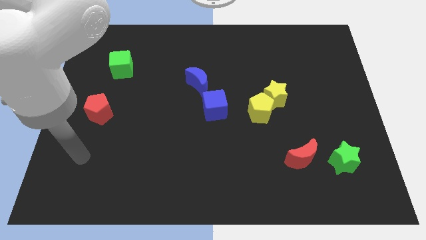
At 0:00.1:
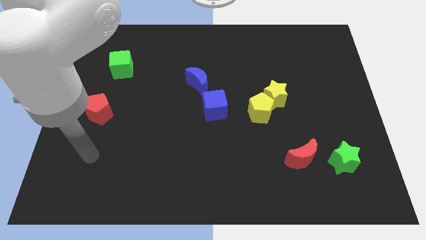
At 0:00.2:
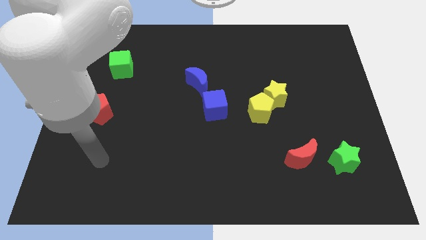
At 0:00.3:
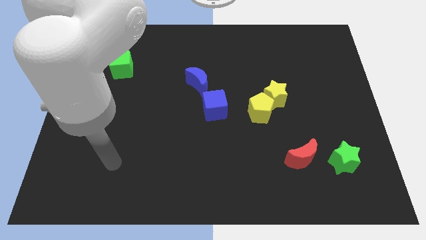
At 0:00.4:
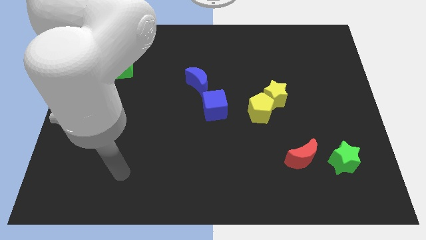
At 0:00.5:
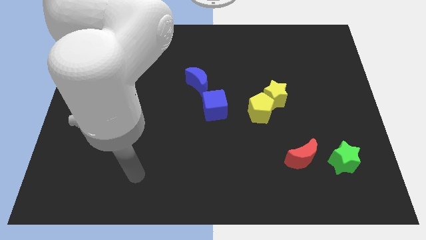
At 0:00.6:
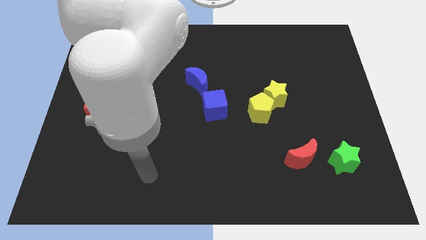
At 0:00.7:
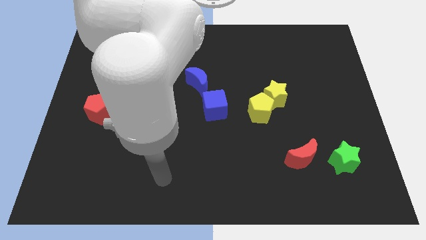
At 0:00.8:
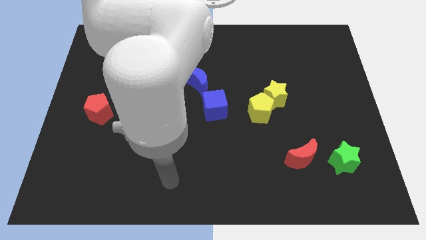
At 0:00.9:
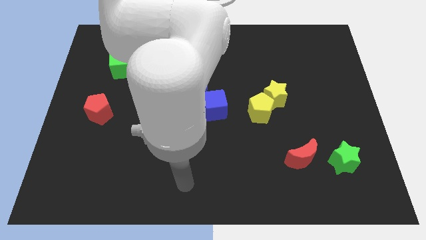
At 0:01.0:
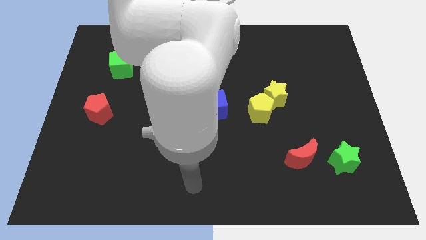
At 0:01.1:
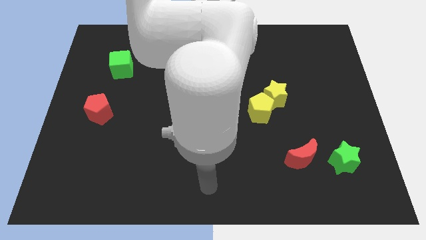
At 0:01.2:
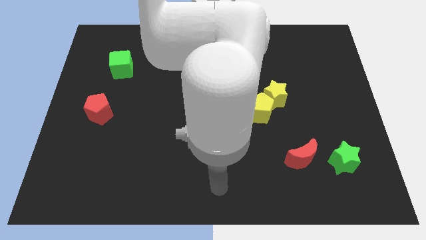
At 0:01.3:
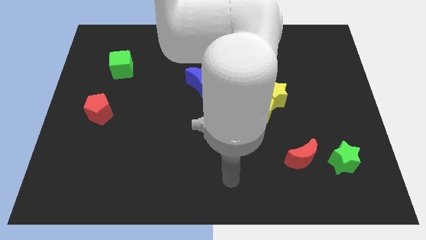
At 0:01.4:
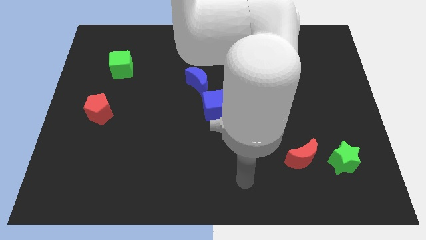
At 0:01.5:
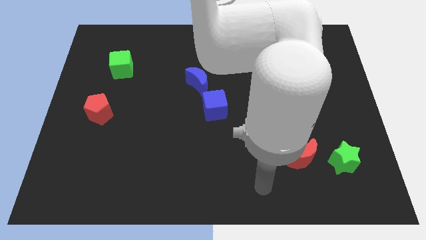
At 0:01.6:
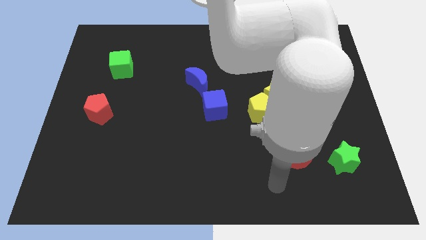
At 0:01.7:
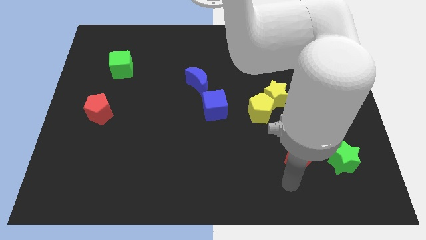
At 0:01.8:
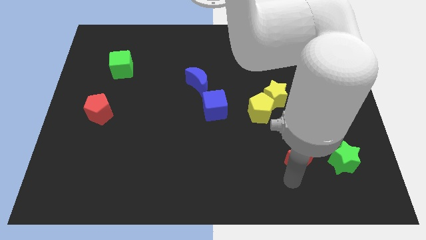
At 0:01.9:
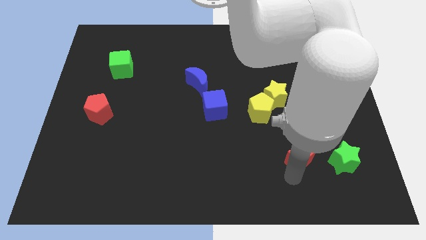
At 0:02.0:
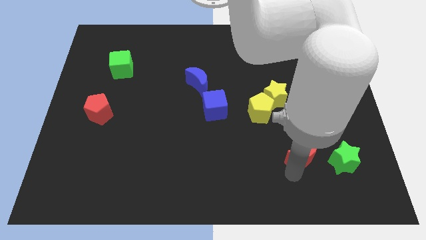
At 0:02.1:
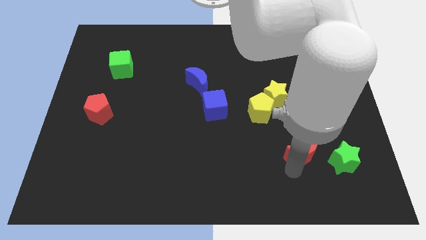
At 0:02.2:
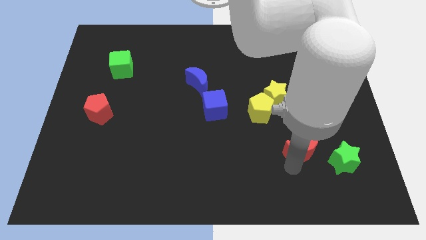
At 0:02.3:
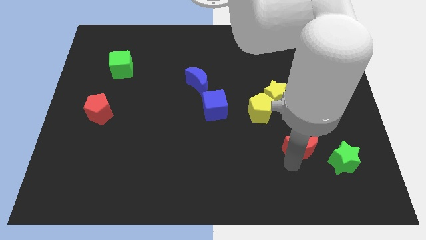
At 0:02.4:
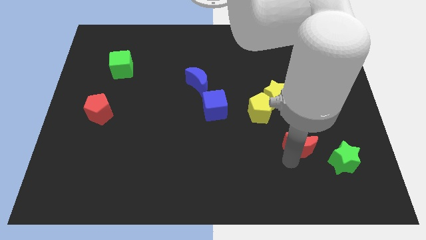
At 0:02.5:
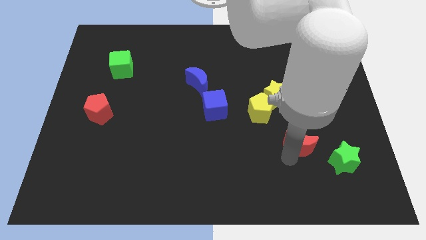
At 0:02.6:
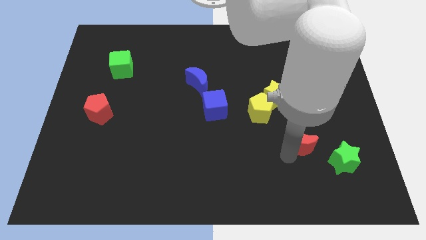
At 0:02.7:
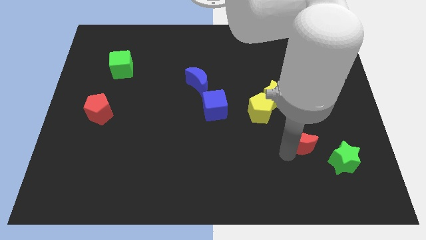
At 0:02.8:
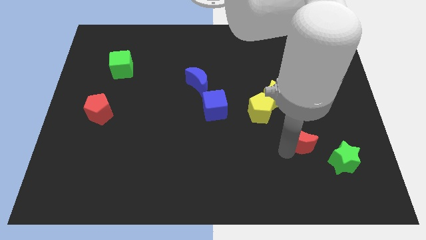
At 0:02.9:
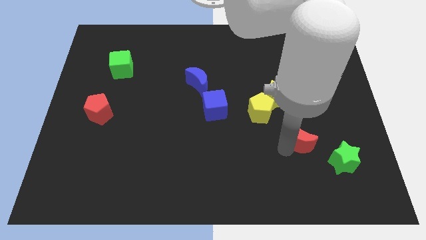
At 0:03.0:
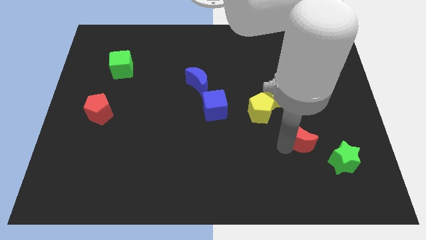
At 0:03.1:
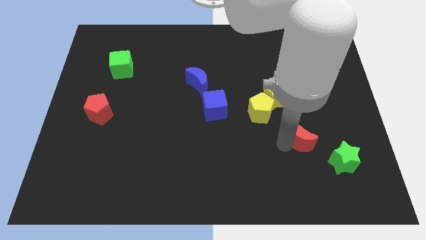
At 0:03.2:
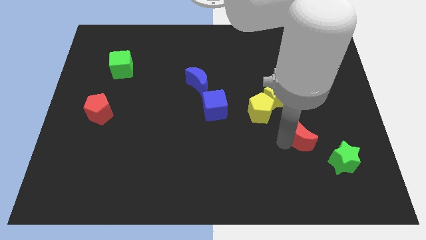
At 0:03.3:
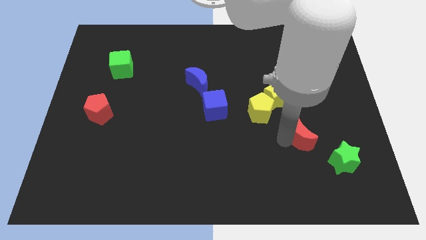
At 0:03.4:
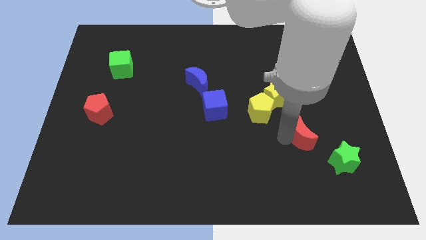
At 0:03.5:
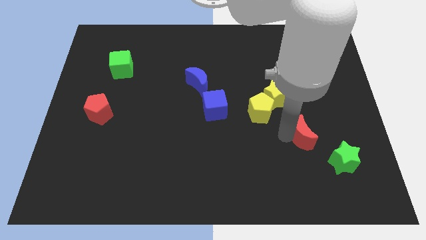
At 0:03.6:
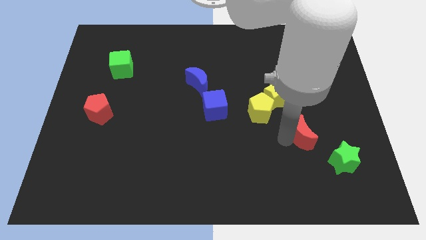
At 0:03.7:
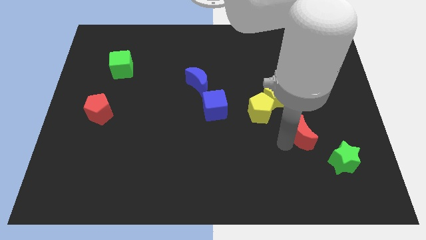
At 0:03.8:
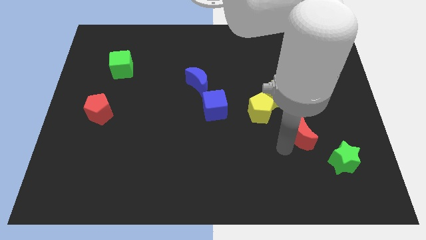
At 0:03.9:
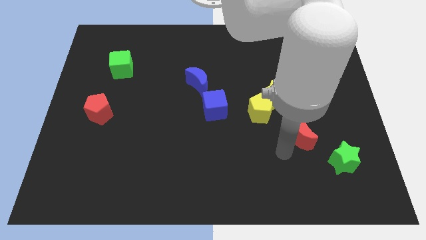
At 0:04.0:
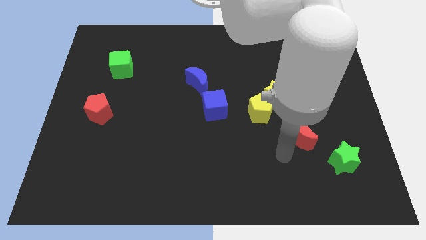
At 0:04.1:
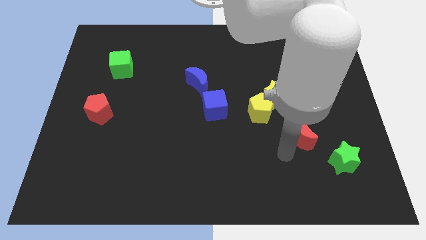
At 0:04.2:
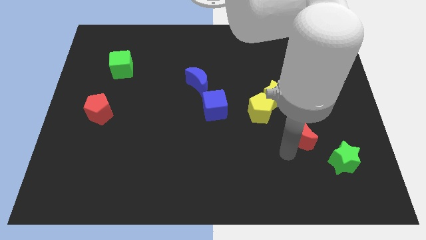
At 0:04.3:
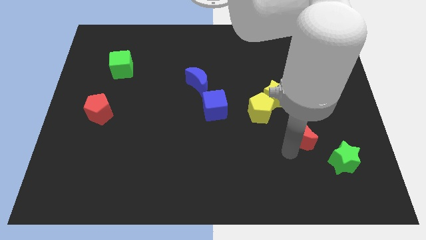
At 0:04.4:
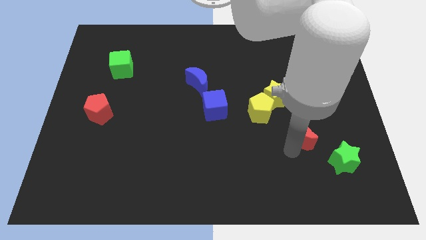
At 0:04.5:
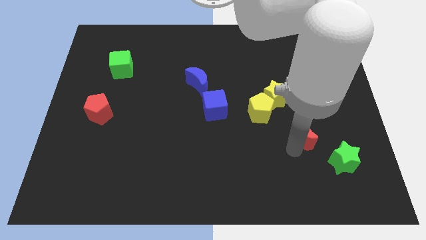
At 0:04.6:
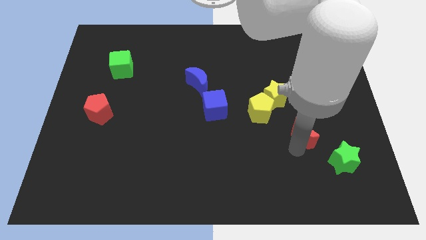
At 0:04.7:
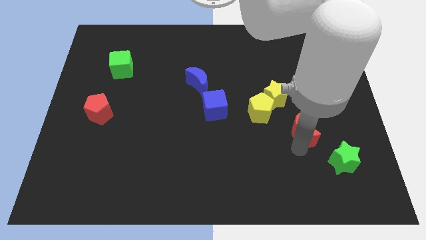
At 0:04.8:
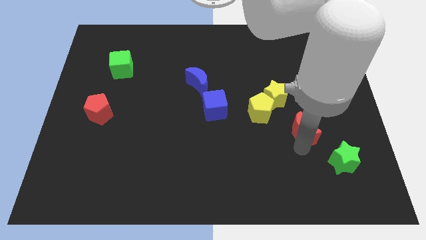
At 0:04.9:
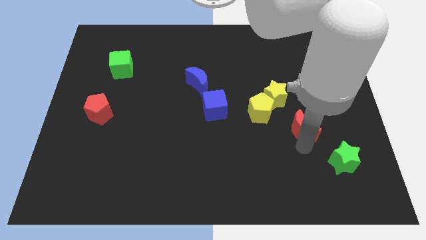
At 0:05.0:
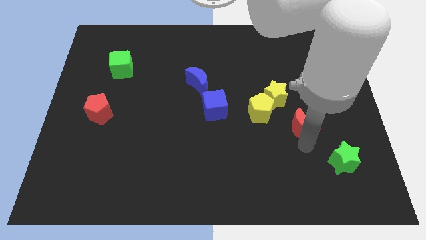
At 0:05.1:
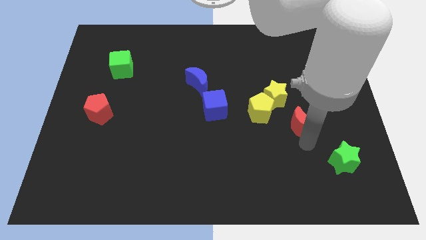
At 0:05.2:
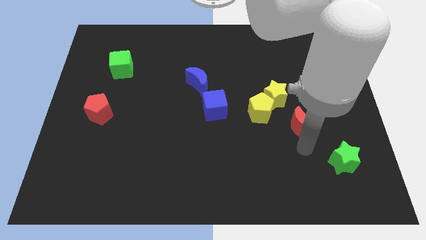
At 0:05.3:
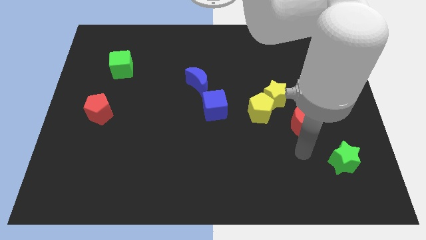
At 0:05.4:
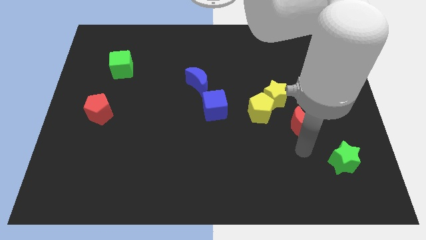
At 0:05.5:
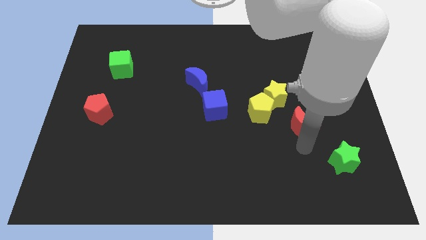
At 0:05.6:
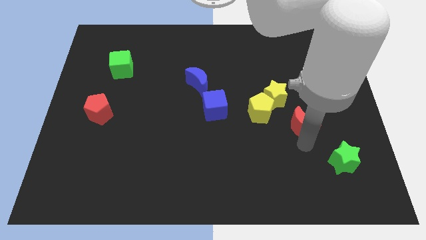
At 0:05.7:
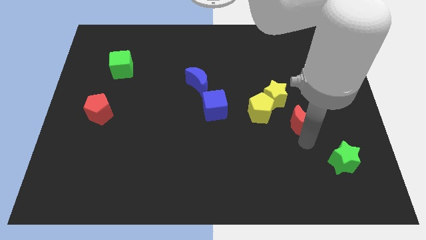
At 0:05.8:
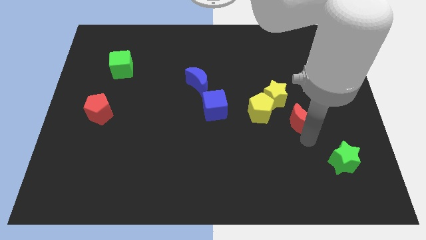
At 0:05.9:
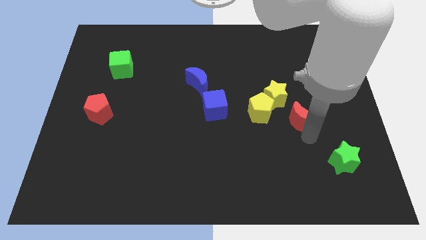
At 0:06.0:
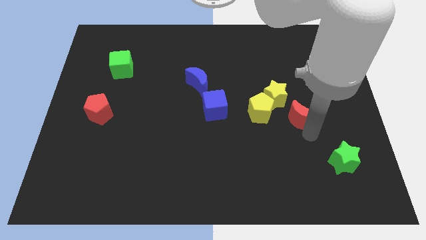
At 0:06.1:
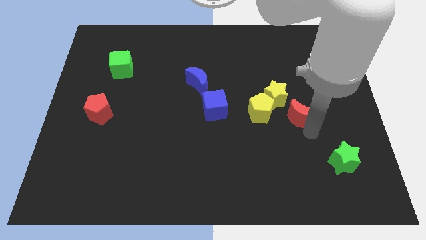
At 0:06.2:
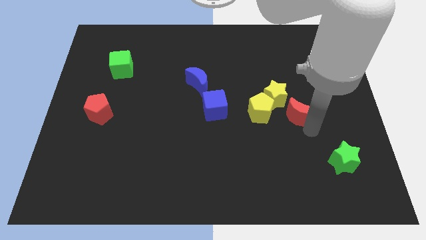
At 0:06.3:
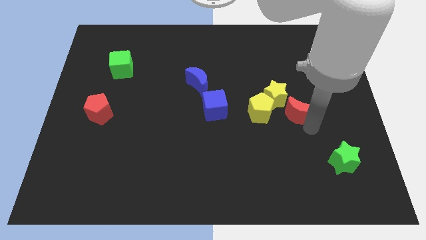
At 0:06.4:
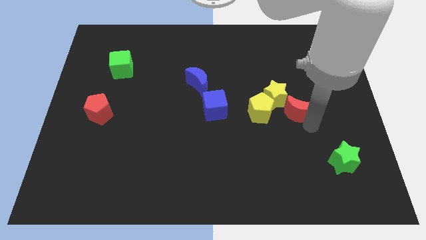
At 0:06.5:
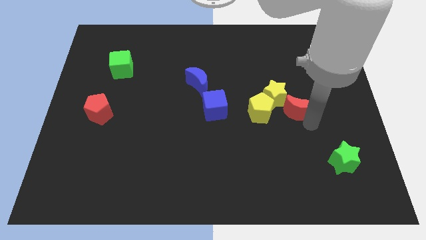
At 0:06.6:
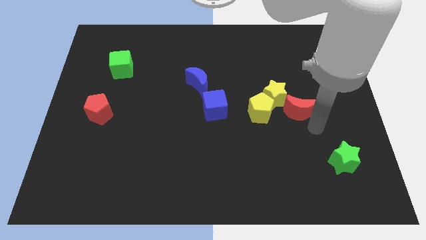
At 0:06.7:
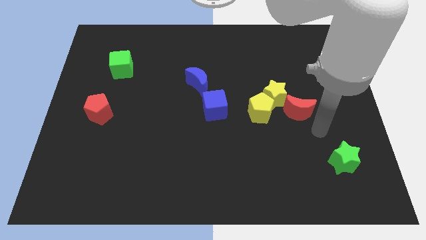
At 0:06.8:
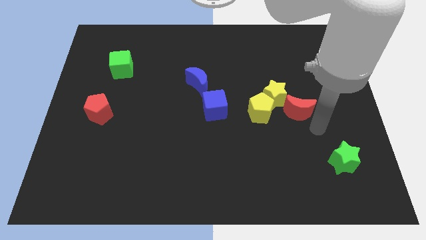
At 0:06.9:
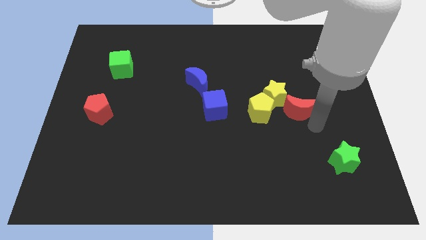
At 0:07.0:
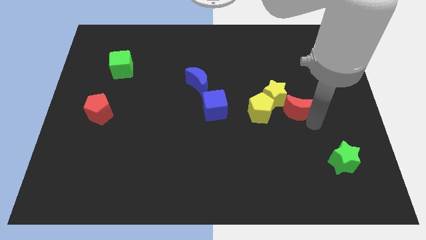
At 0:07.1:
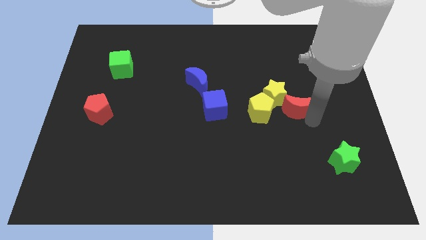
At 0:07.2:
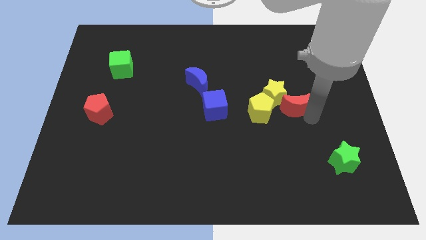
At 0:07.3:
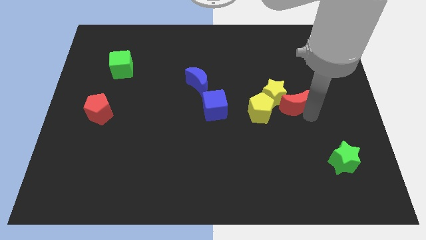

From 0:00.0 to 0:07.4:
push the red moon to the top right side of the yellow pentagon

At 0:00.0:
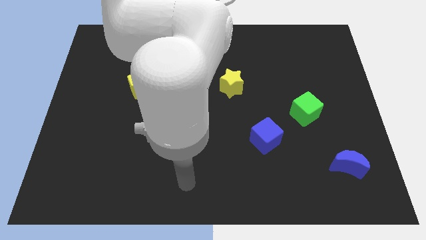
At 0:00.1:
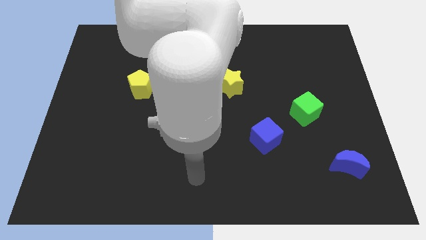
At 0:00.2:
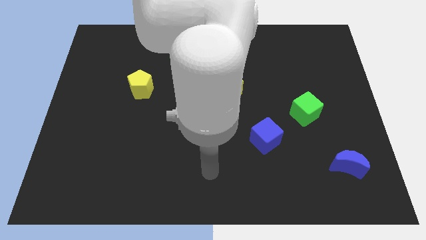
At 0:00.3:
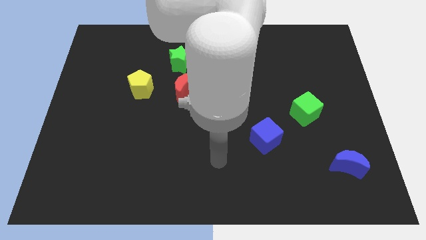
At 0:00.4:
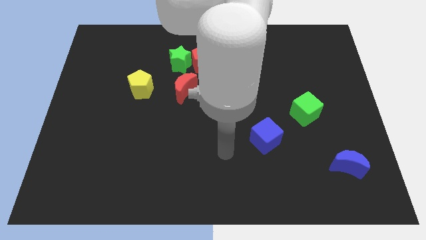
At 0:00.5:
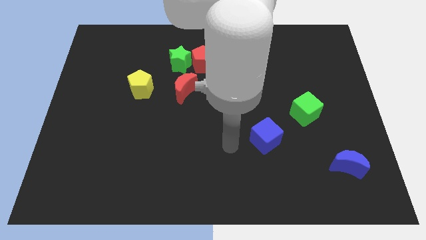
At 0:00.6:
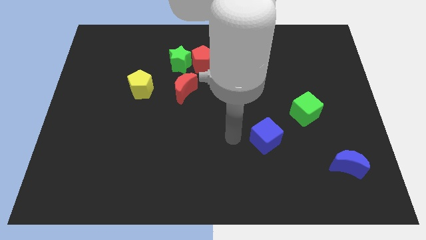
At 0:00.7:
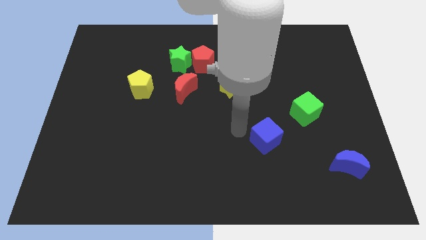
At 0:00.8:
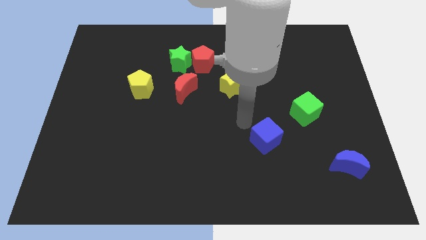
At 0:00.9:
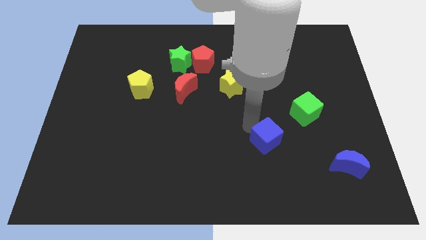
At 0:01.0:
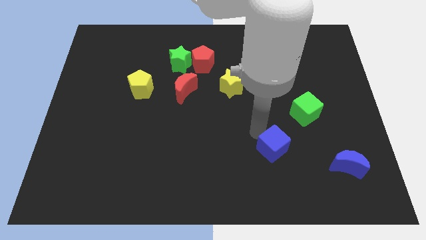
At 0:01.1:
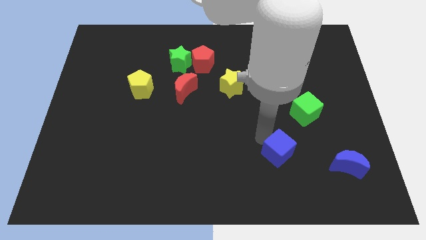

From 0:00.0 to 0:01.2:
slide the blue cube left of the blue moon
